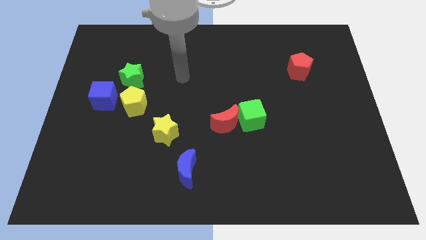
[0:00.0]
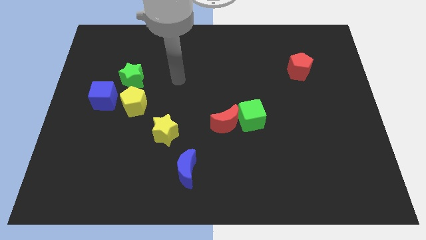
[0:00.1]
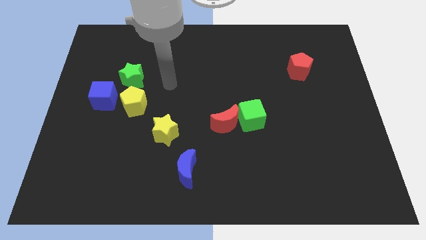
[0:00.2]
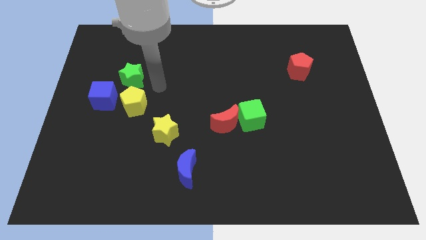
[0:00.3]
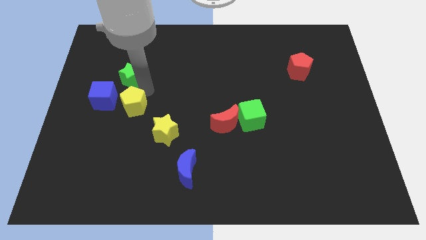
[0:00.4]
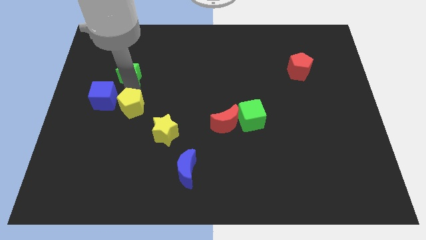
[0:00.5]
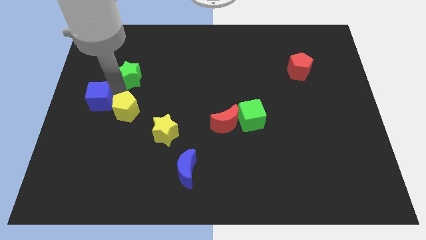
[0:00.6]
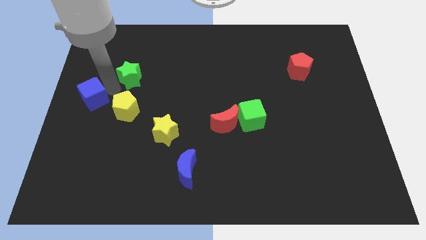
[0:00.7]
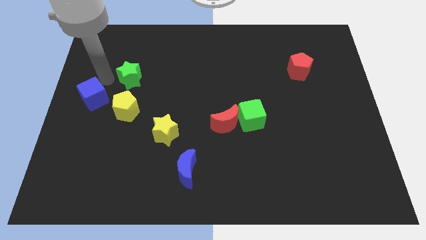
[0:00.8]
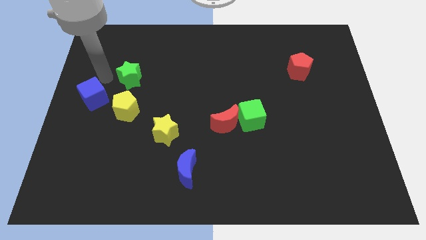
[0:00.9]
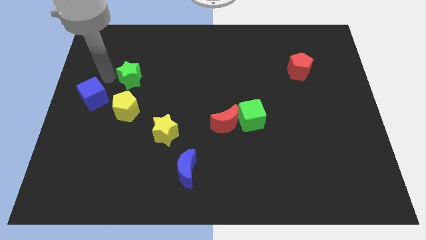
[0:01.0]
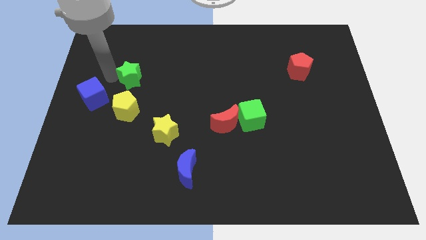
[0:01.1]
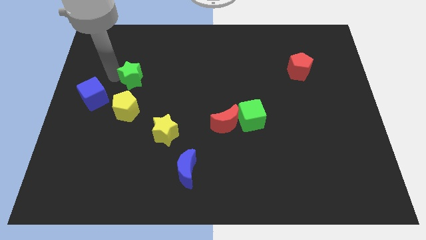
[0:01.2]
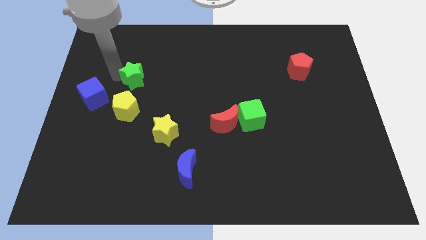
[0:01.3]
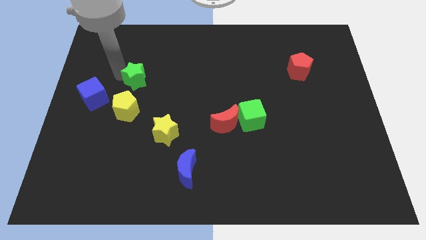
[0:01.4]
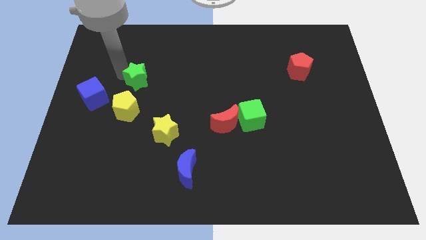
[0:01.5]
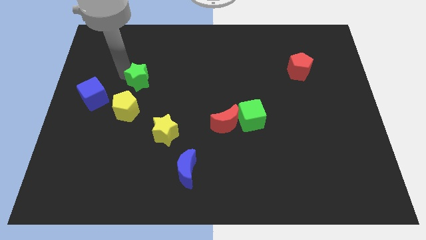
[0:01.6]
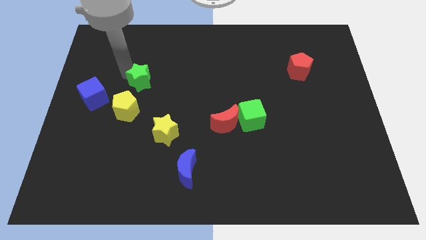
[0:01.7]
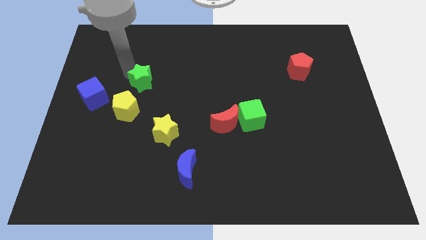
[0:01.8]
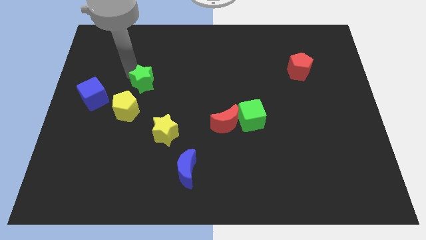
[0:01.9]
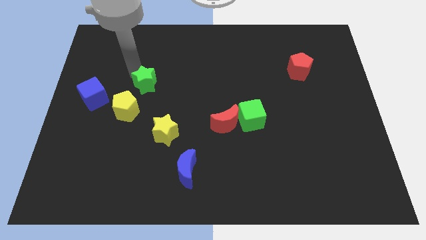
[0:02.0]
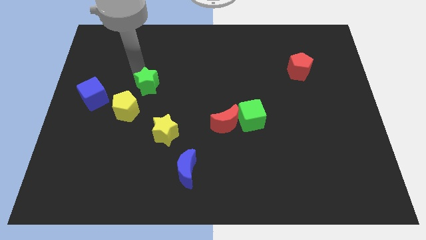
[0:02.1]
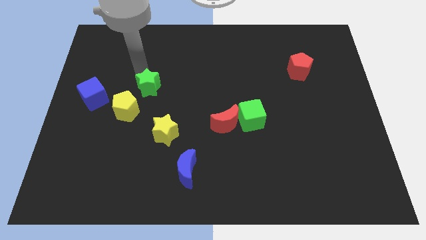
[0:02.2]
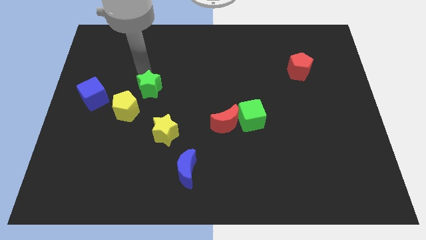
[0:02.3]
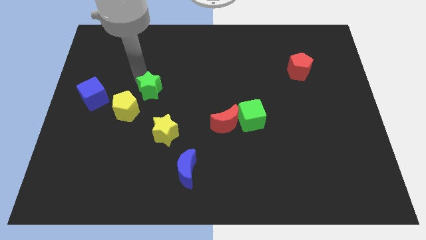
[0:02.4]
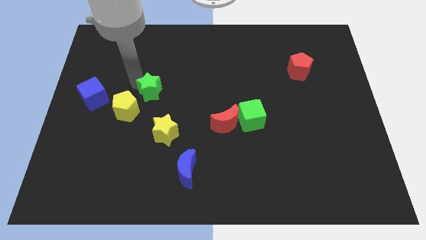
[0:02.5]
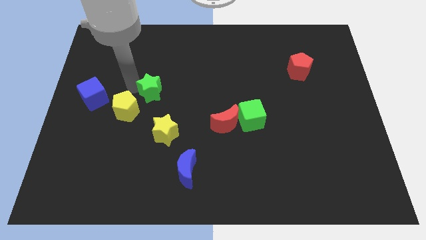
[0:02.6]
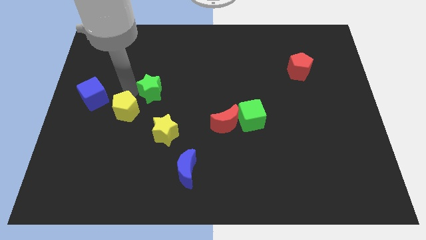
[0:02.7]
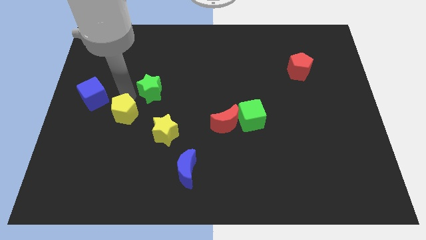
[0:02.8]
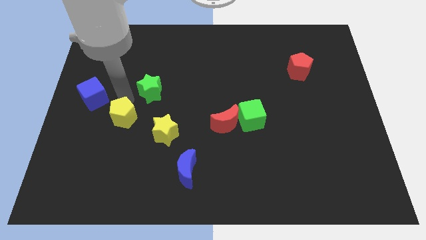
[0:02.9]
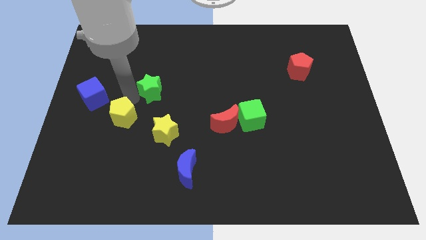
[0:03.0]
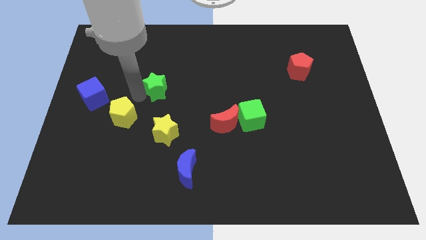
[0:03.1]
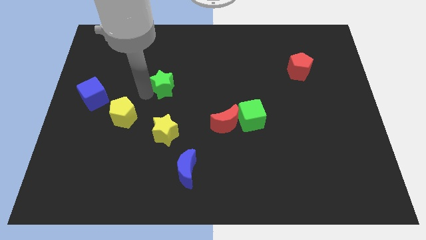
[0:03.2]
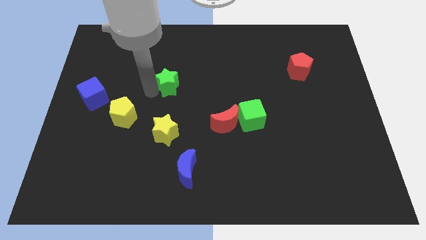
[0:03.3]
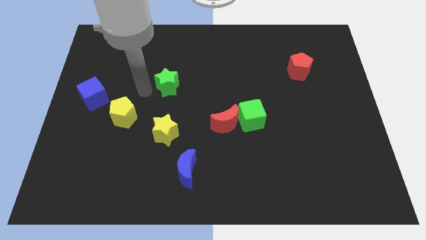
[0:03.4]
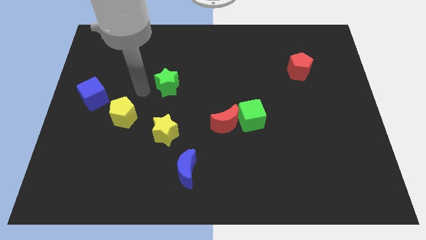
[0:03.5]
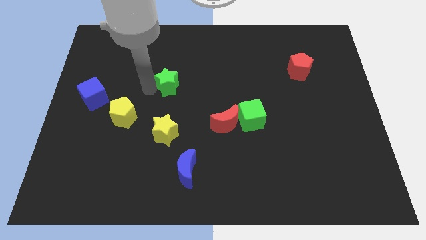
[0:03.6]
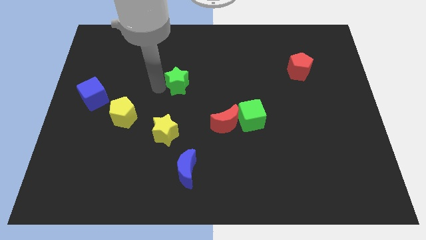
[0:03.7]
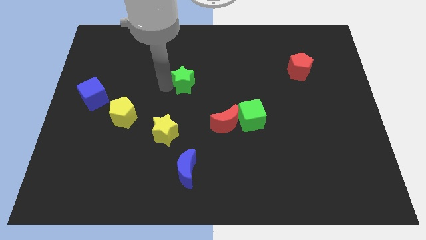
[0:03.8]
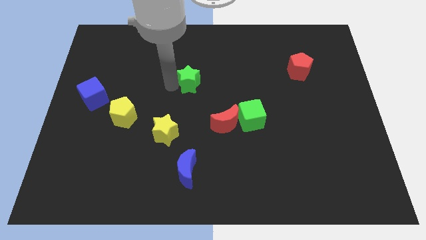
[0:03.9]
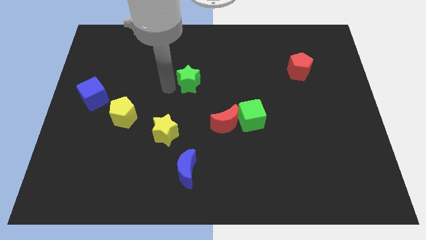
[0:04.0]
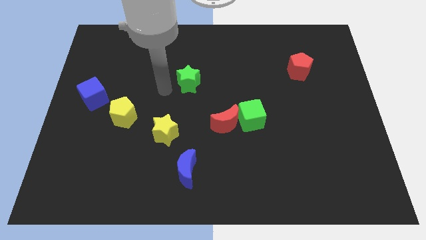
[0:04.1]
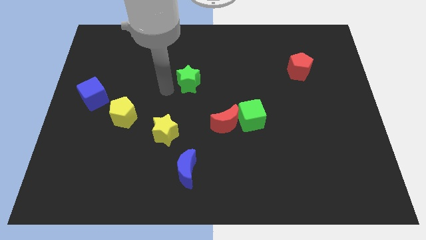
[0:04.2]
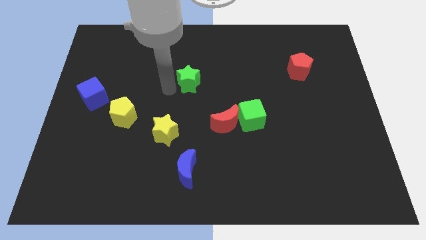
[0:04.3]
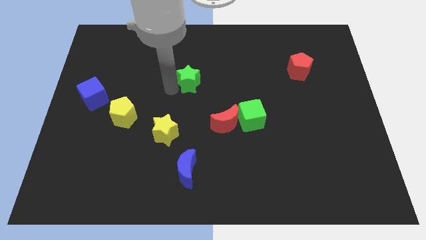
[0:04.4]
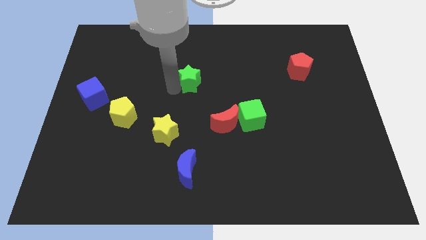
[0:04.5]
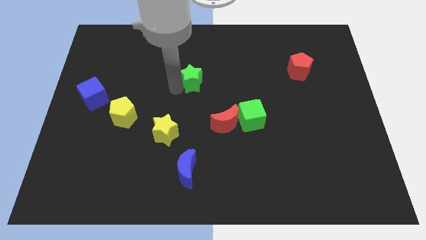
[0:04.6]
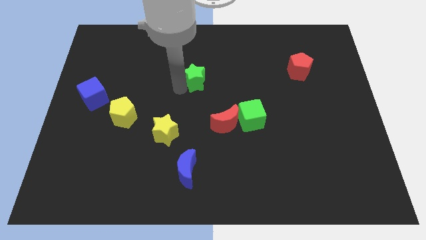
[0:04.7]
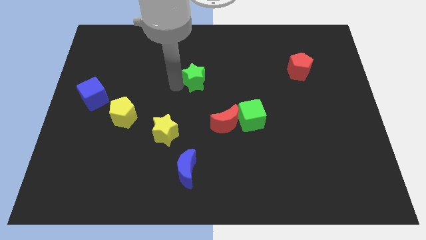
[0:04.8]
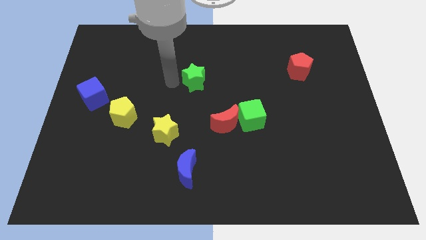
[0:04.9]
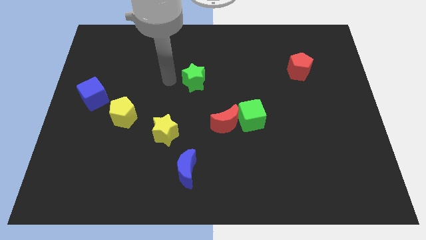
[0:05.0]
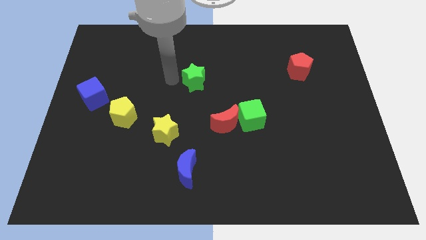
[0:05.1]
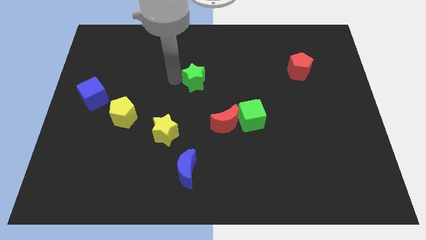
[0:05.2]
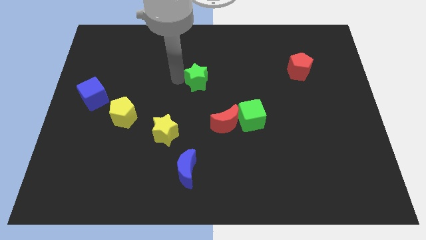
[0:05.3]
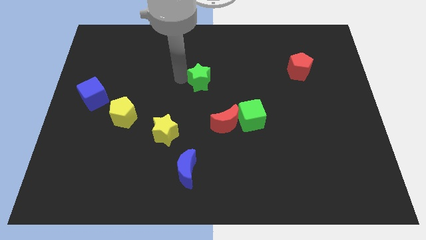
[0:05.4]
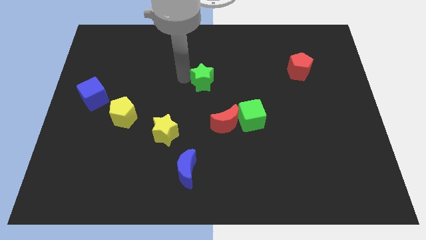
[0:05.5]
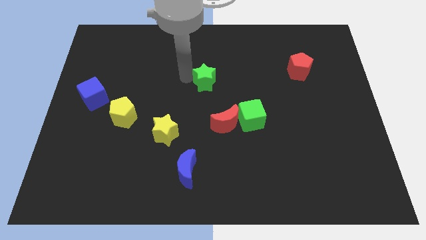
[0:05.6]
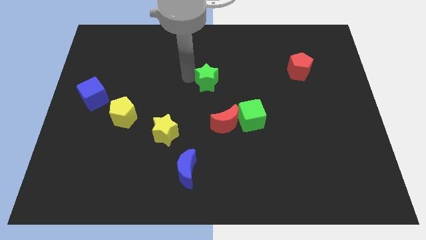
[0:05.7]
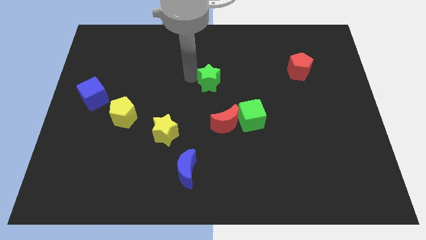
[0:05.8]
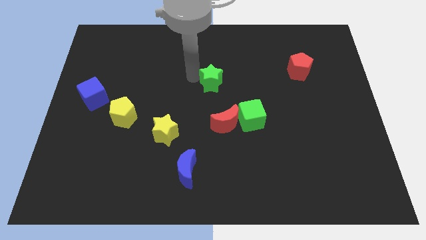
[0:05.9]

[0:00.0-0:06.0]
slide the green star to the right

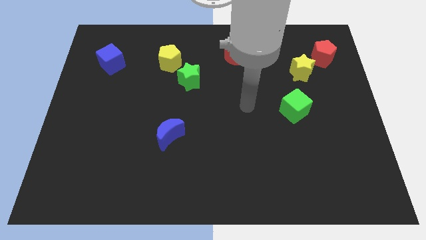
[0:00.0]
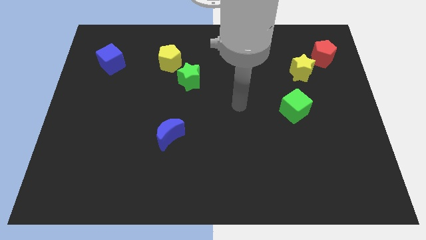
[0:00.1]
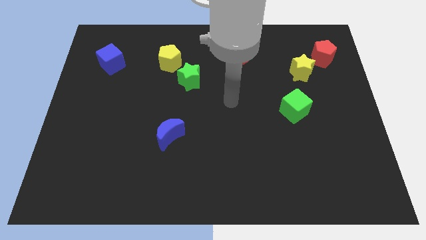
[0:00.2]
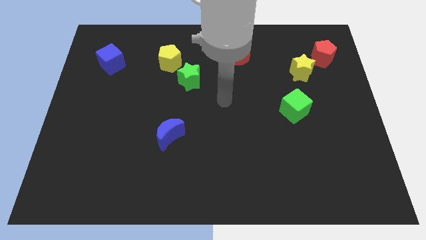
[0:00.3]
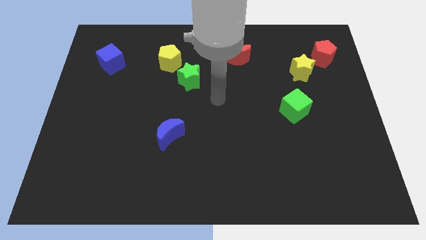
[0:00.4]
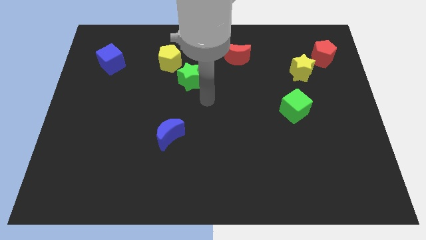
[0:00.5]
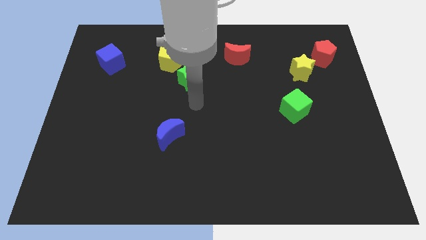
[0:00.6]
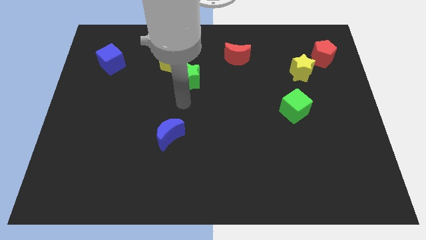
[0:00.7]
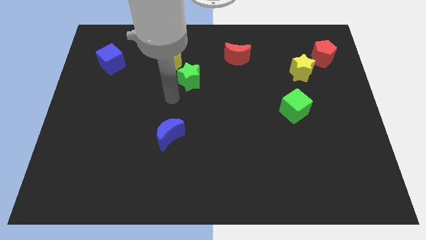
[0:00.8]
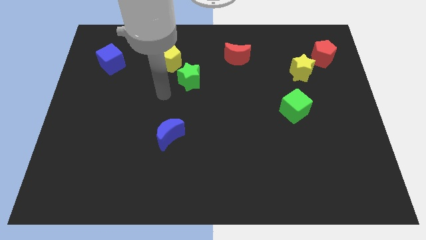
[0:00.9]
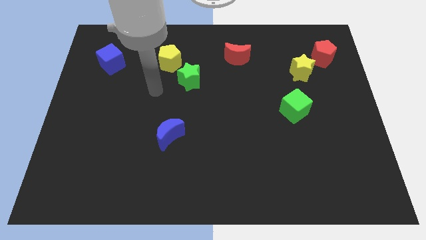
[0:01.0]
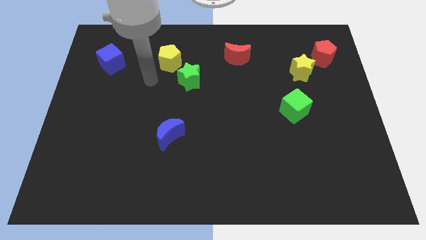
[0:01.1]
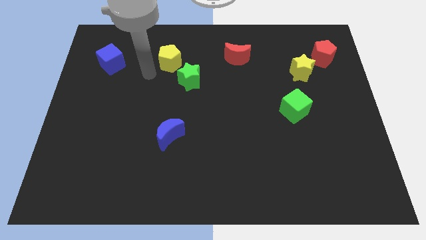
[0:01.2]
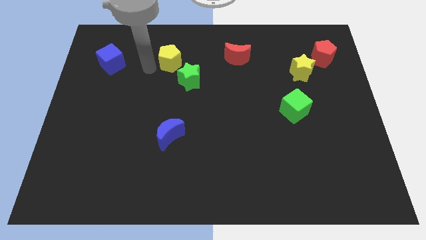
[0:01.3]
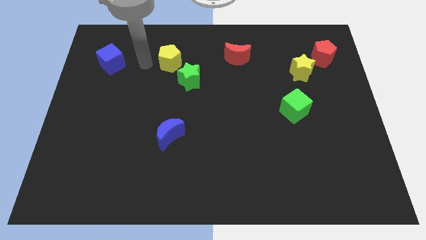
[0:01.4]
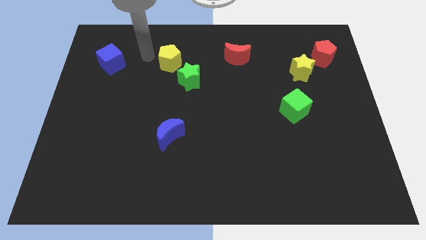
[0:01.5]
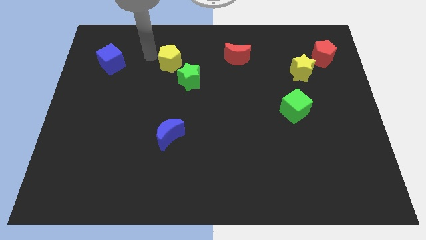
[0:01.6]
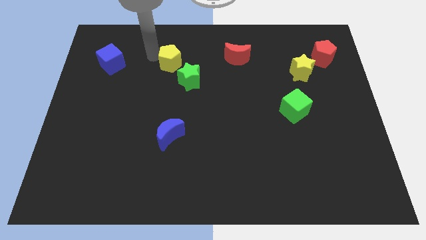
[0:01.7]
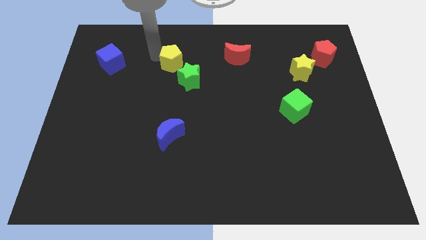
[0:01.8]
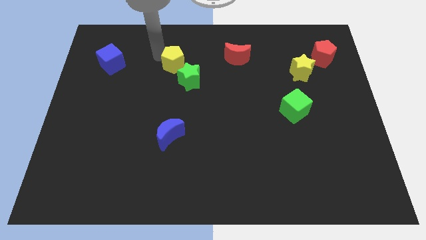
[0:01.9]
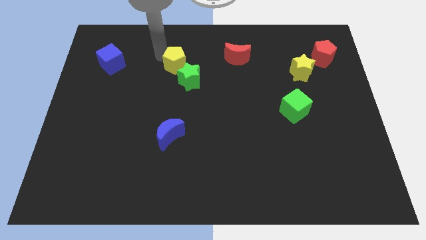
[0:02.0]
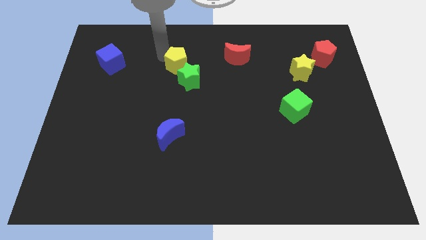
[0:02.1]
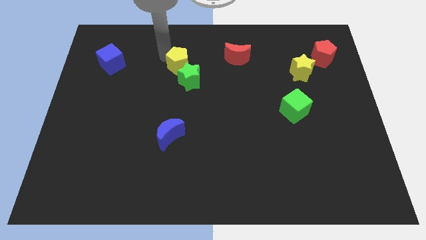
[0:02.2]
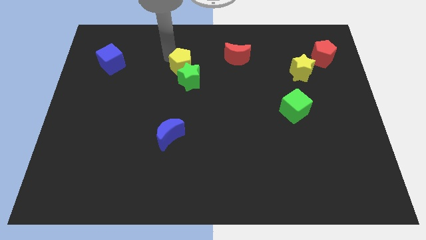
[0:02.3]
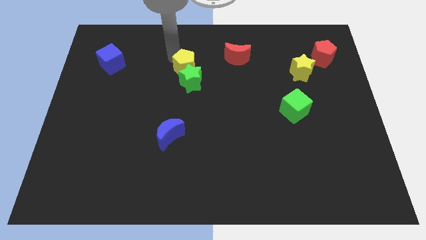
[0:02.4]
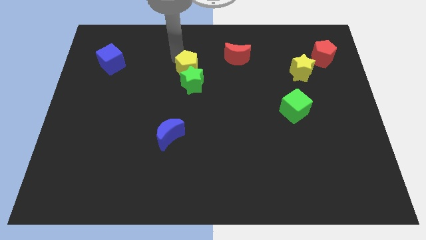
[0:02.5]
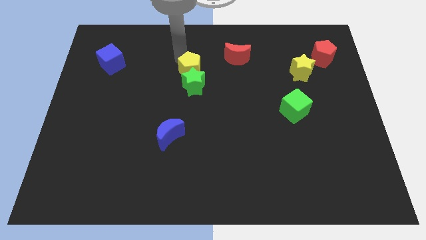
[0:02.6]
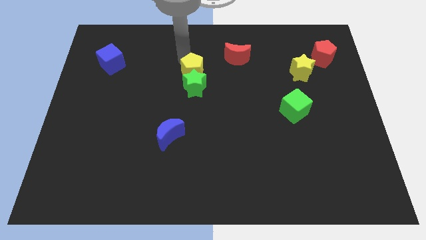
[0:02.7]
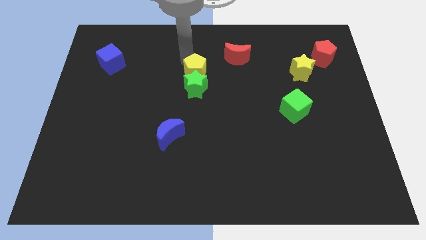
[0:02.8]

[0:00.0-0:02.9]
slightly push the yellow pentagon down and right
